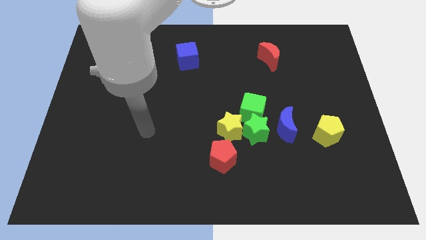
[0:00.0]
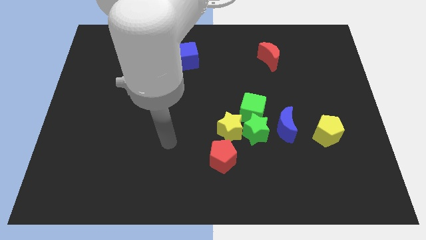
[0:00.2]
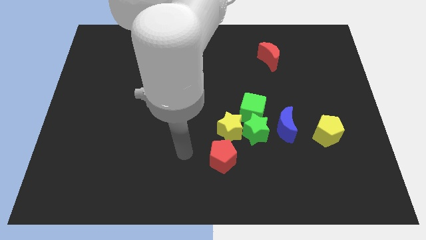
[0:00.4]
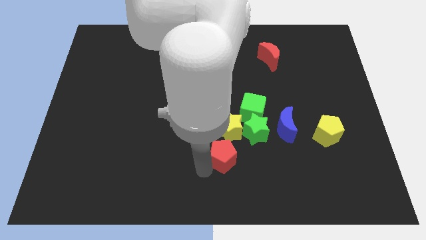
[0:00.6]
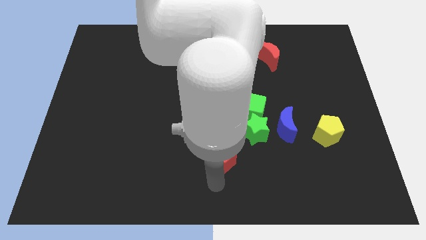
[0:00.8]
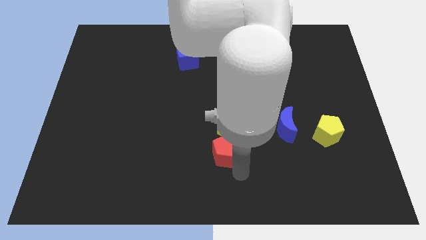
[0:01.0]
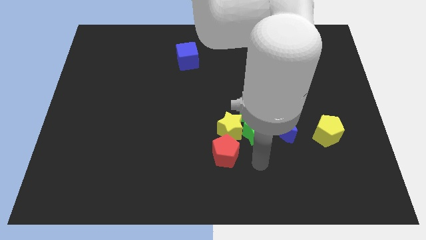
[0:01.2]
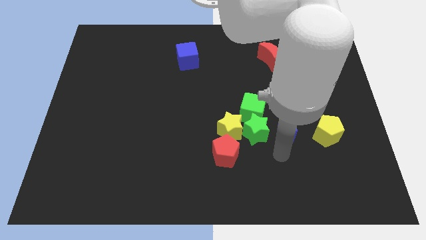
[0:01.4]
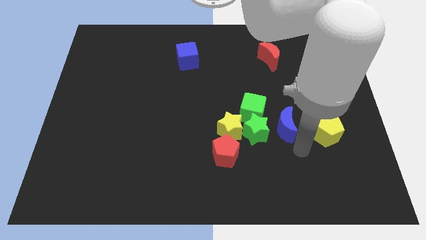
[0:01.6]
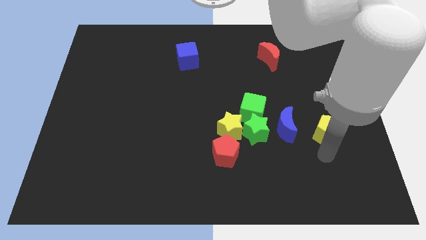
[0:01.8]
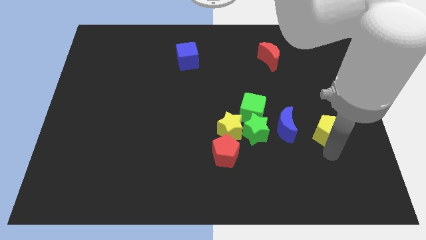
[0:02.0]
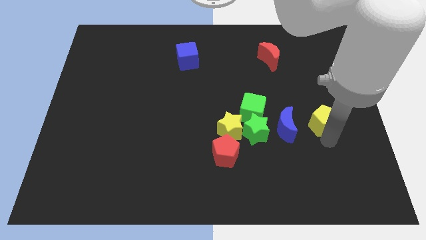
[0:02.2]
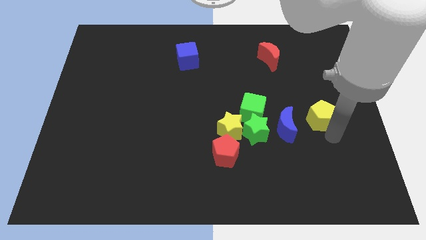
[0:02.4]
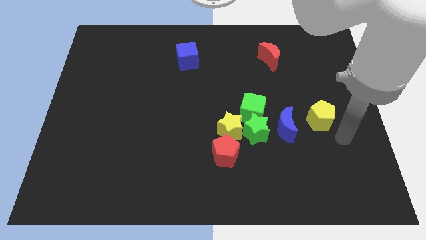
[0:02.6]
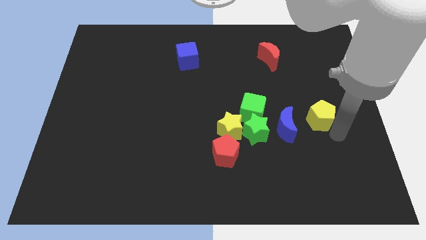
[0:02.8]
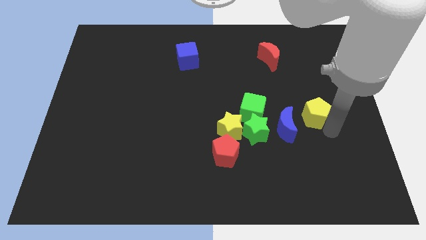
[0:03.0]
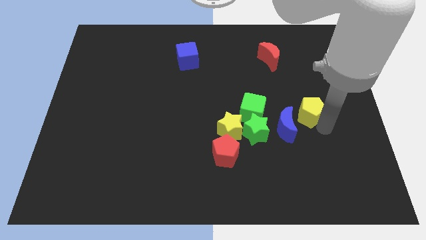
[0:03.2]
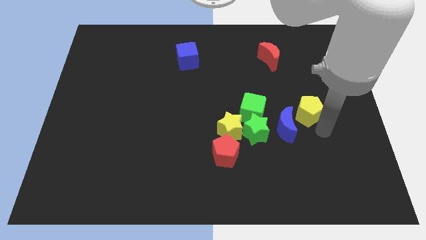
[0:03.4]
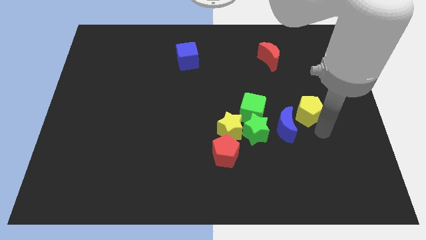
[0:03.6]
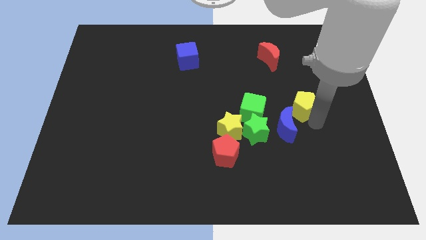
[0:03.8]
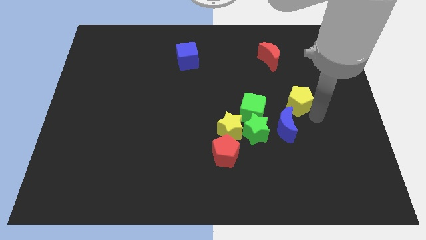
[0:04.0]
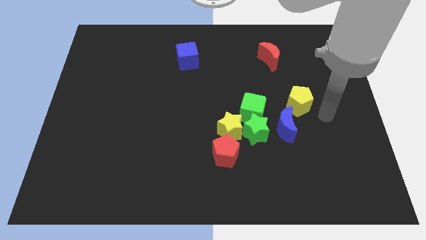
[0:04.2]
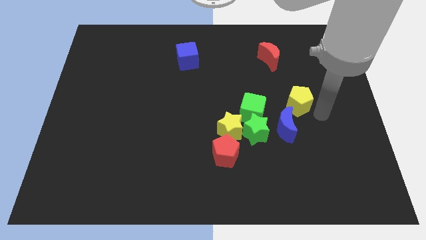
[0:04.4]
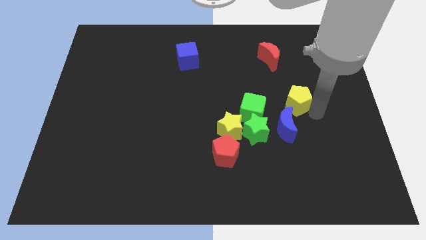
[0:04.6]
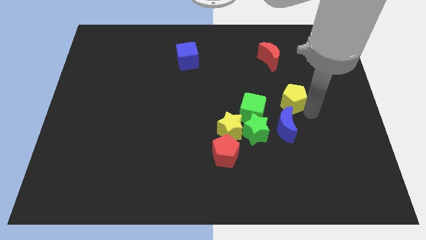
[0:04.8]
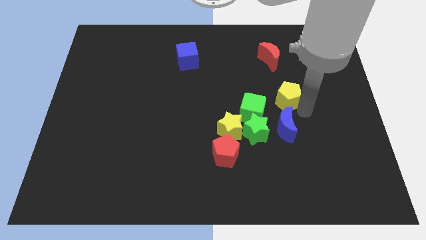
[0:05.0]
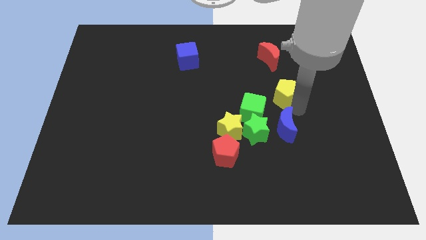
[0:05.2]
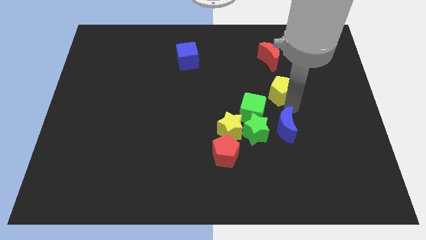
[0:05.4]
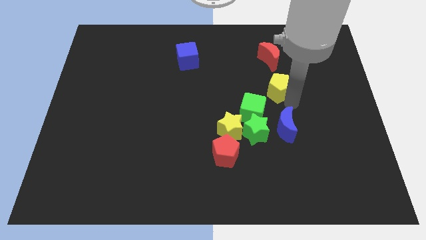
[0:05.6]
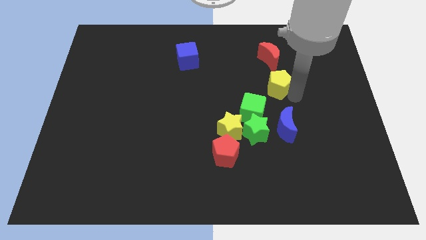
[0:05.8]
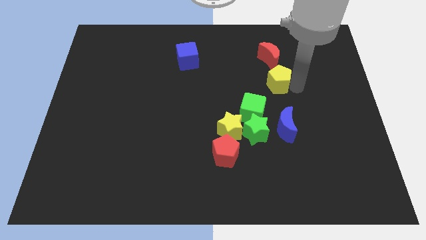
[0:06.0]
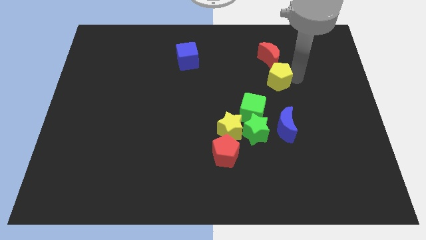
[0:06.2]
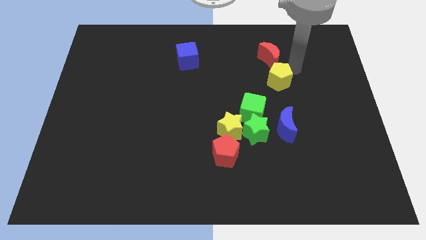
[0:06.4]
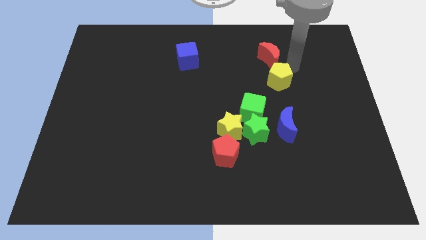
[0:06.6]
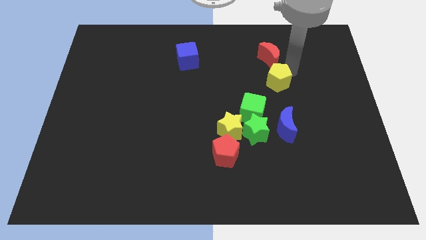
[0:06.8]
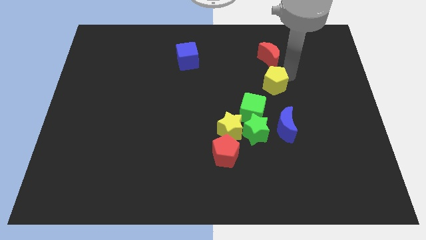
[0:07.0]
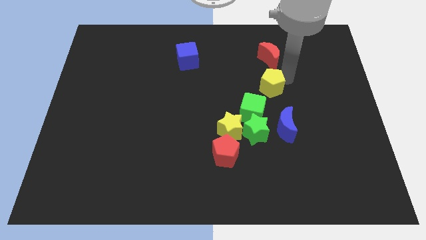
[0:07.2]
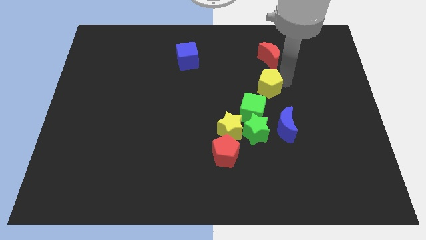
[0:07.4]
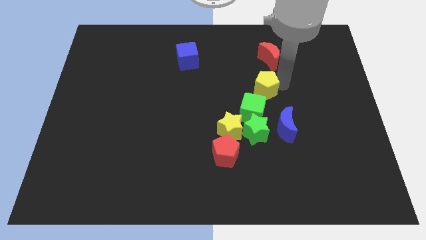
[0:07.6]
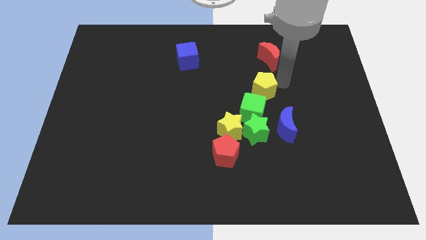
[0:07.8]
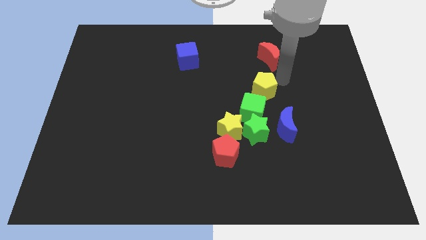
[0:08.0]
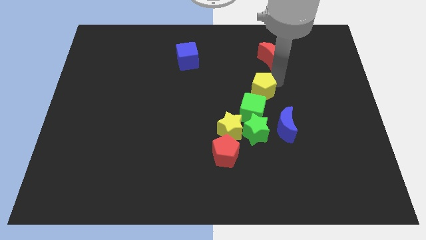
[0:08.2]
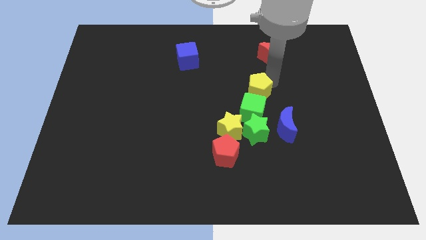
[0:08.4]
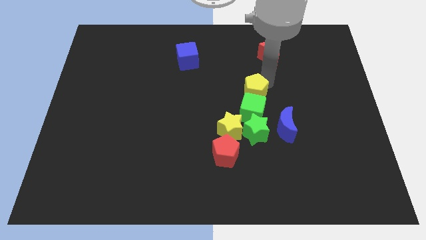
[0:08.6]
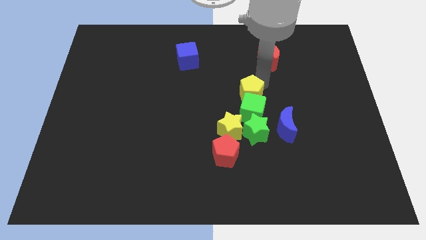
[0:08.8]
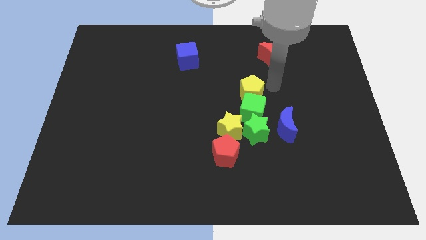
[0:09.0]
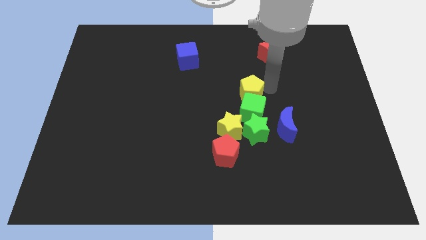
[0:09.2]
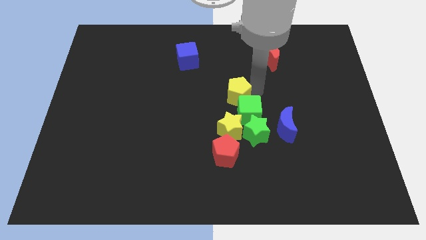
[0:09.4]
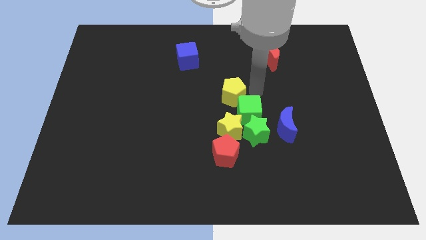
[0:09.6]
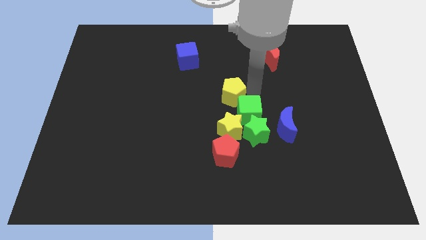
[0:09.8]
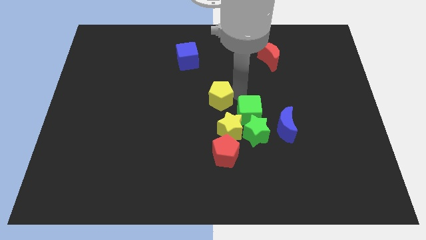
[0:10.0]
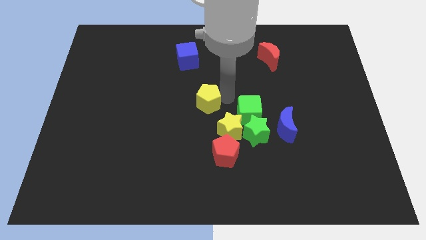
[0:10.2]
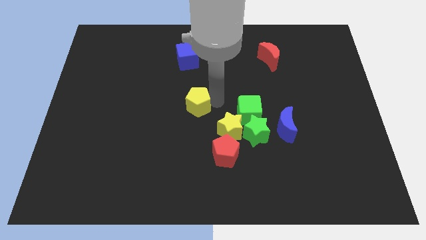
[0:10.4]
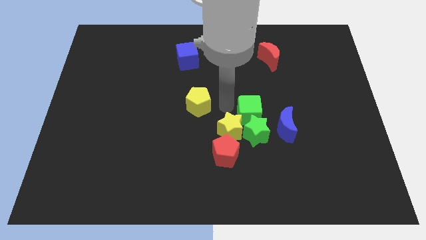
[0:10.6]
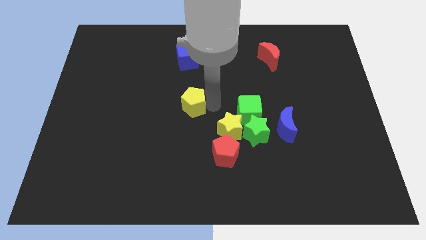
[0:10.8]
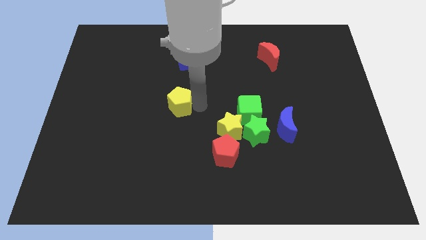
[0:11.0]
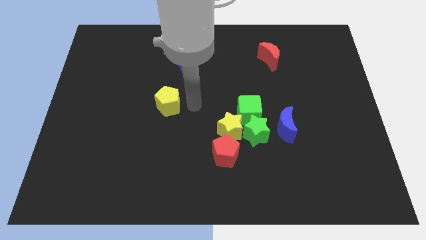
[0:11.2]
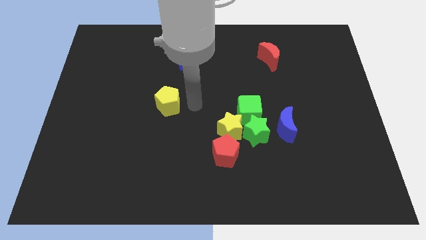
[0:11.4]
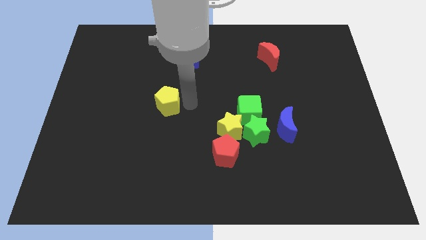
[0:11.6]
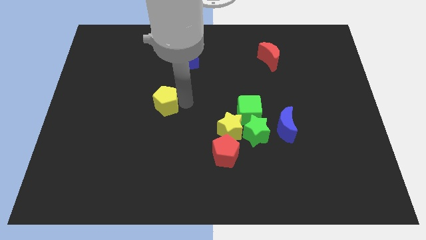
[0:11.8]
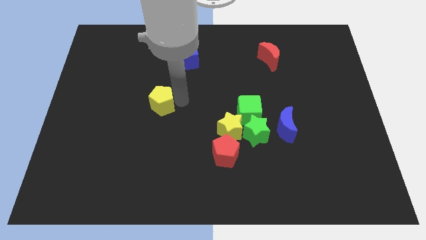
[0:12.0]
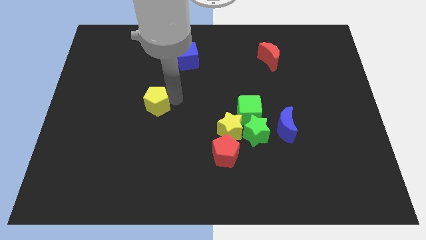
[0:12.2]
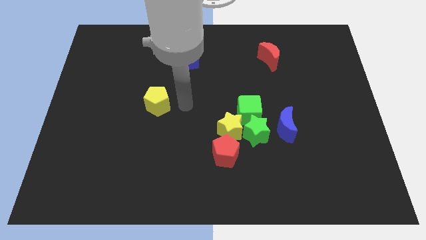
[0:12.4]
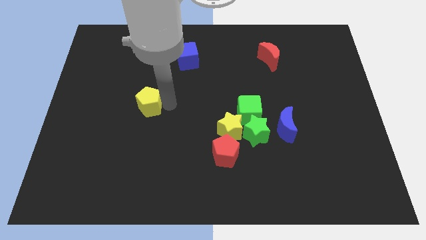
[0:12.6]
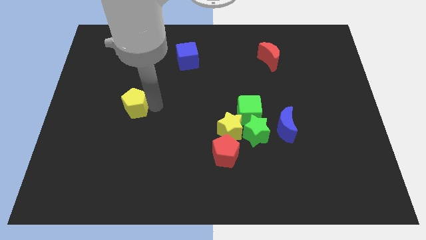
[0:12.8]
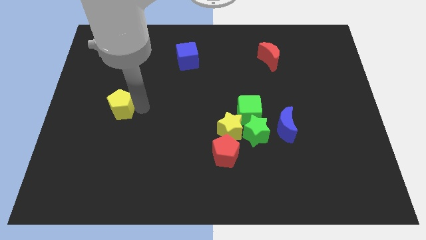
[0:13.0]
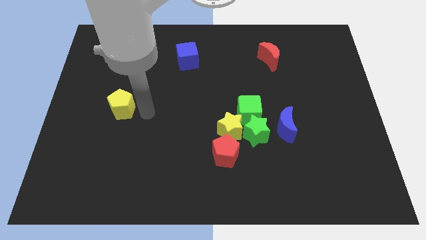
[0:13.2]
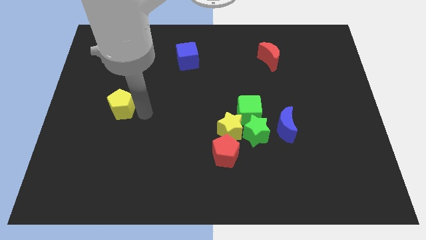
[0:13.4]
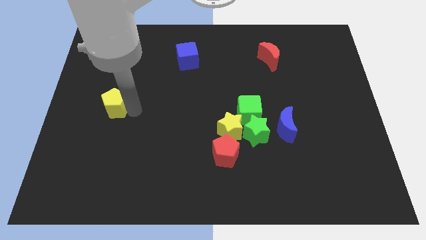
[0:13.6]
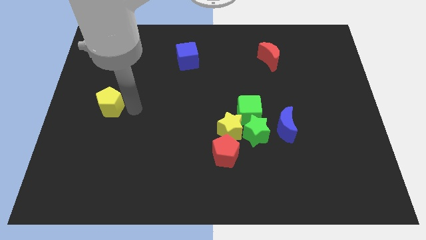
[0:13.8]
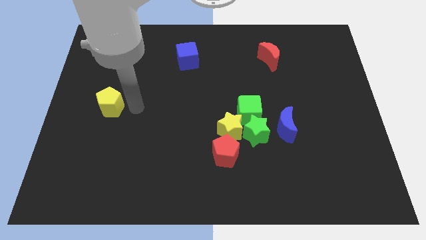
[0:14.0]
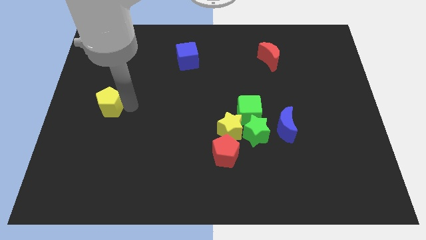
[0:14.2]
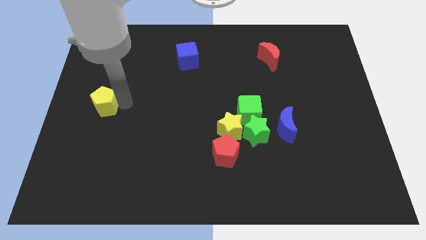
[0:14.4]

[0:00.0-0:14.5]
move the yellow pentagon to the left side of the board
